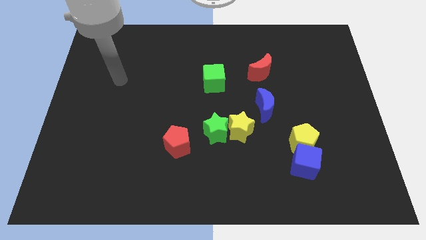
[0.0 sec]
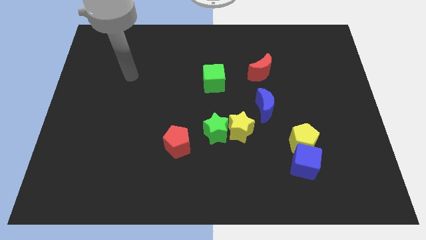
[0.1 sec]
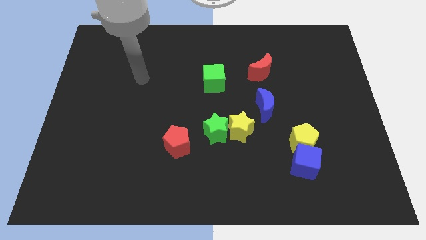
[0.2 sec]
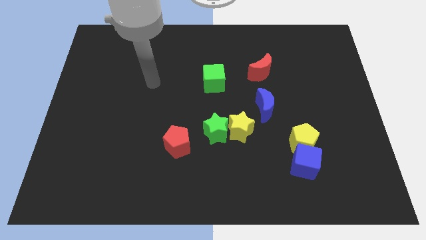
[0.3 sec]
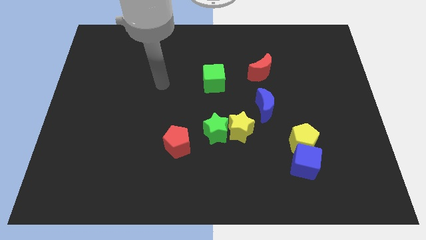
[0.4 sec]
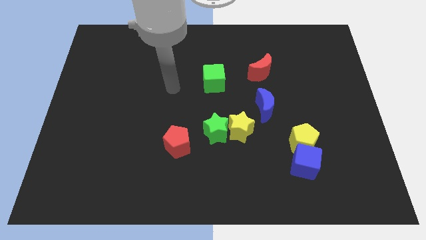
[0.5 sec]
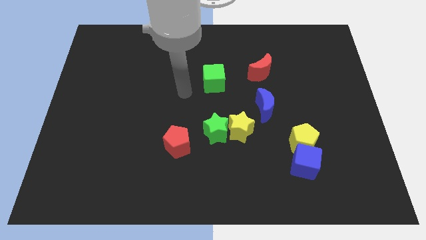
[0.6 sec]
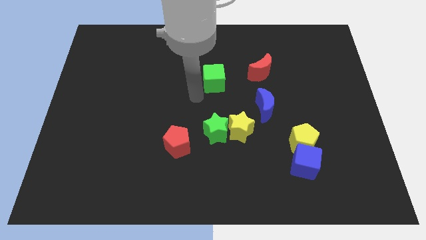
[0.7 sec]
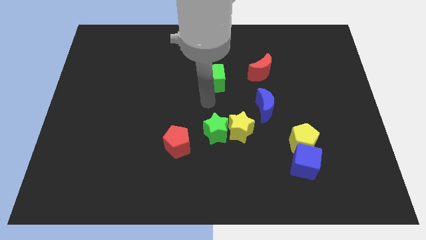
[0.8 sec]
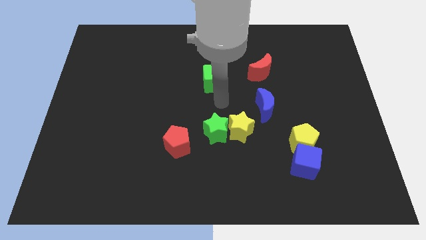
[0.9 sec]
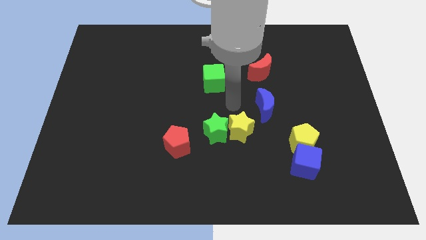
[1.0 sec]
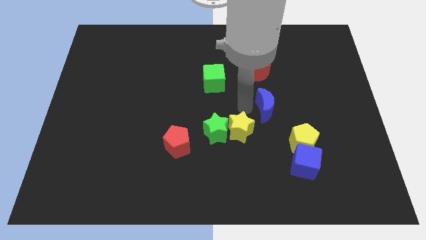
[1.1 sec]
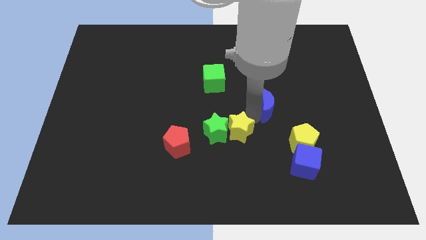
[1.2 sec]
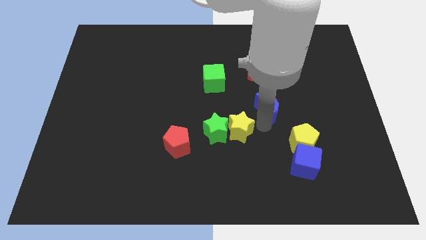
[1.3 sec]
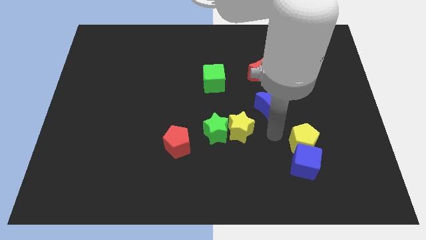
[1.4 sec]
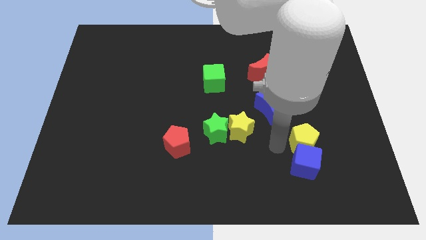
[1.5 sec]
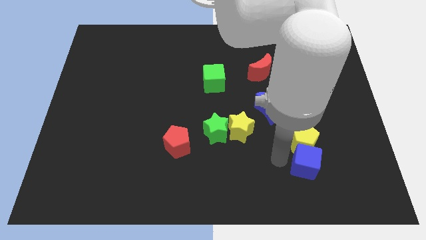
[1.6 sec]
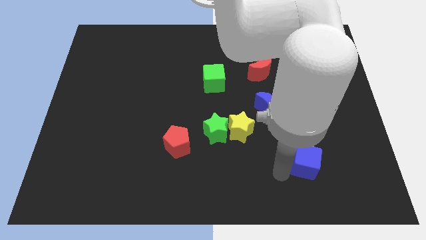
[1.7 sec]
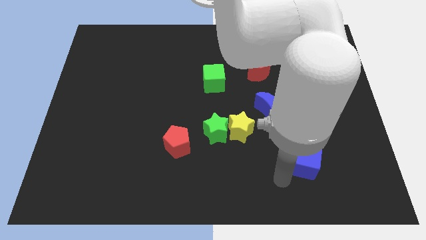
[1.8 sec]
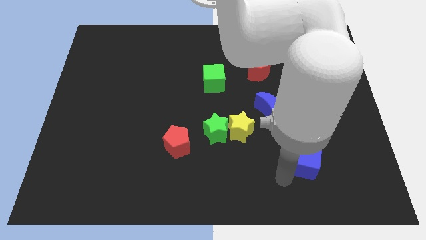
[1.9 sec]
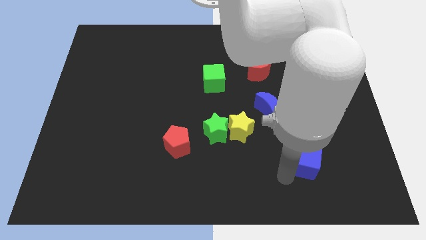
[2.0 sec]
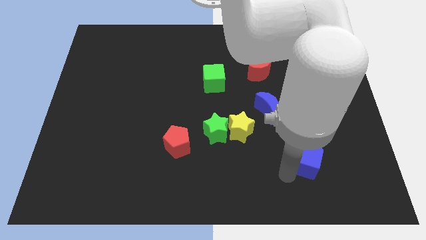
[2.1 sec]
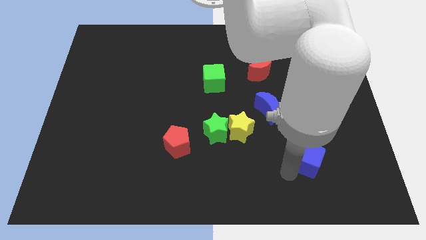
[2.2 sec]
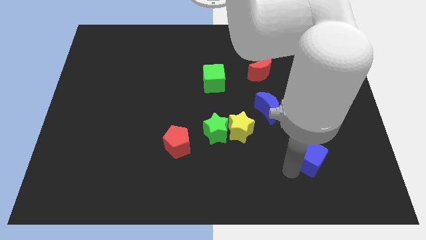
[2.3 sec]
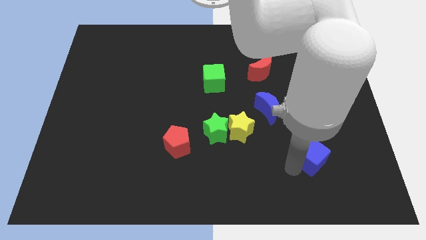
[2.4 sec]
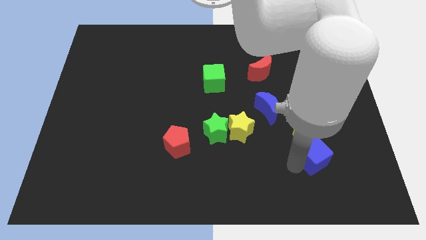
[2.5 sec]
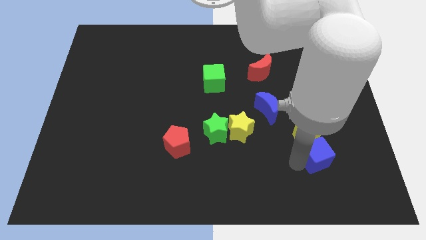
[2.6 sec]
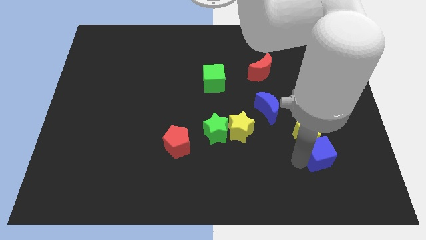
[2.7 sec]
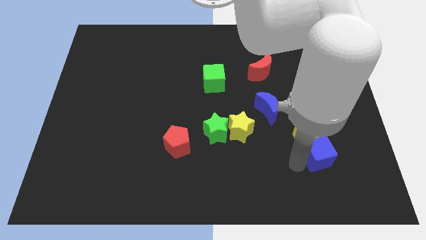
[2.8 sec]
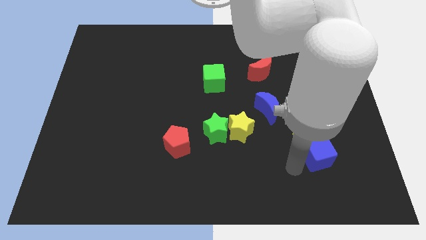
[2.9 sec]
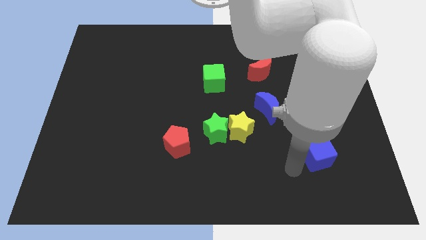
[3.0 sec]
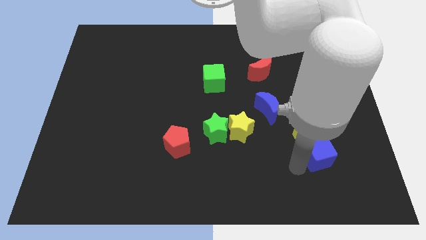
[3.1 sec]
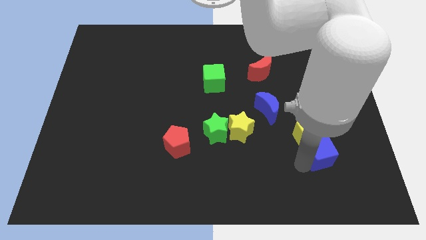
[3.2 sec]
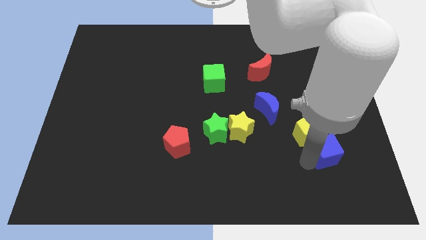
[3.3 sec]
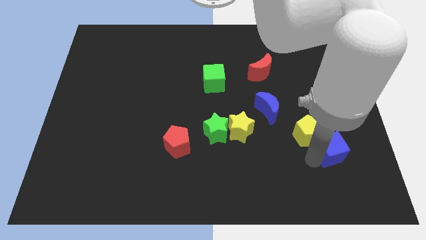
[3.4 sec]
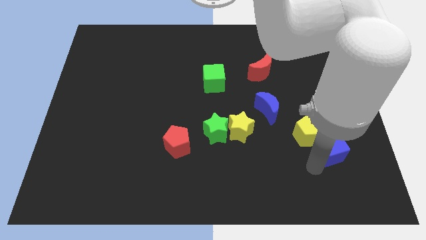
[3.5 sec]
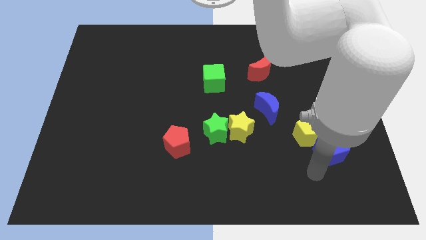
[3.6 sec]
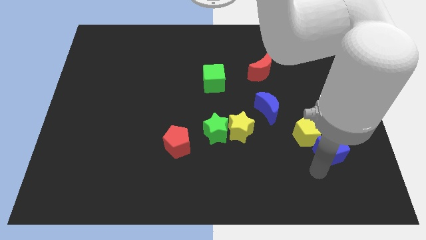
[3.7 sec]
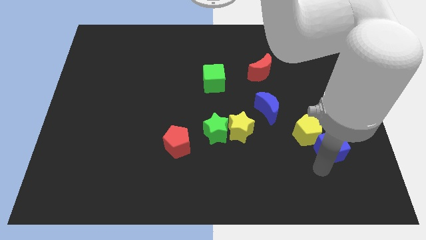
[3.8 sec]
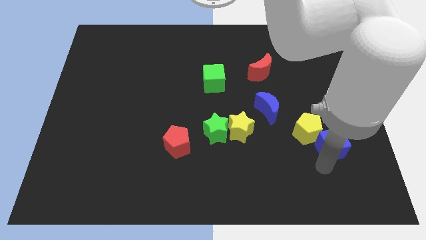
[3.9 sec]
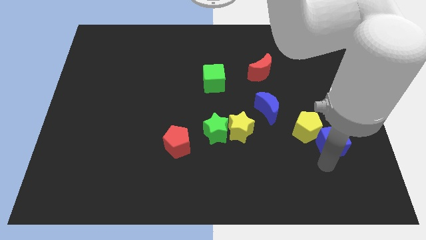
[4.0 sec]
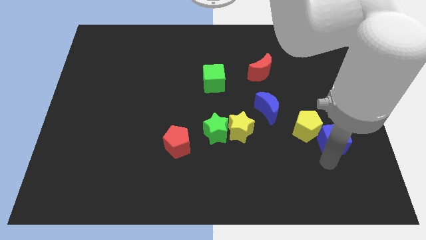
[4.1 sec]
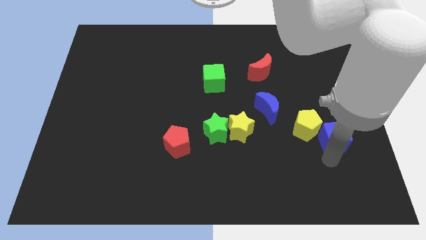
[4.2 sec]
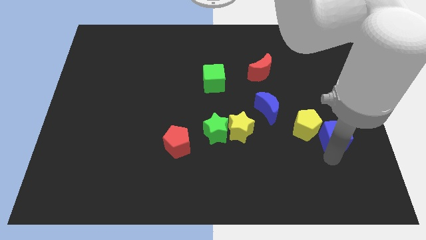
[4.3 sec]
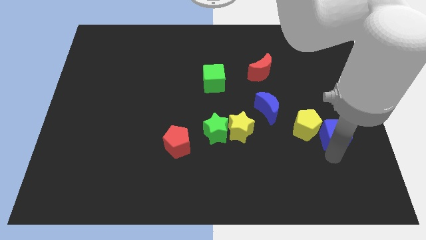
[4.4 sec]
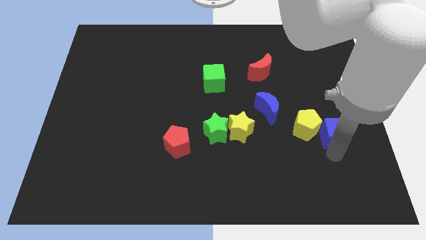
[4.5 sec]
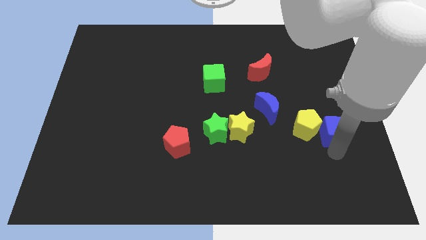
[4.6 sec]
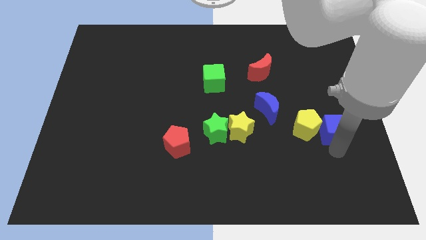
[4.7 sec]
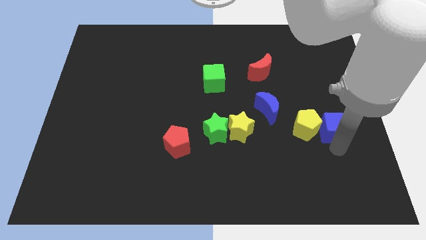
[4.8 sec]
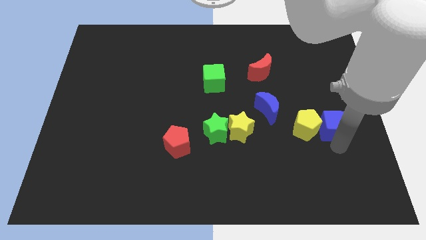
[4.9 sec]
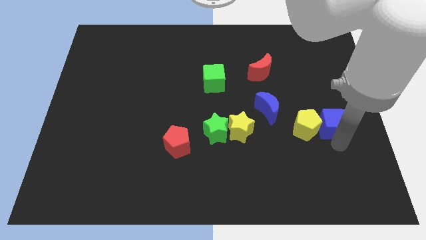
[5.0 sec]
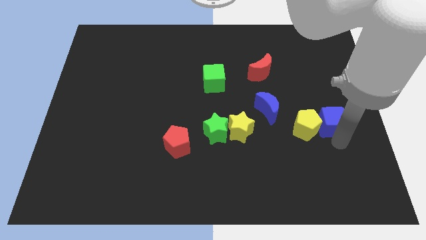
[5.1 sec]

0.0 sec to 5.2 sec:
slide the blue cube to the right side

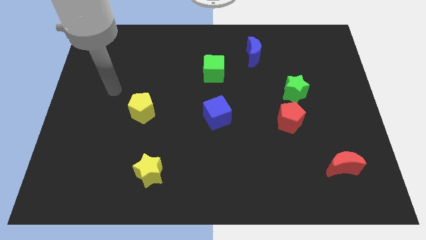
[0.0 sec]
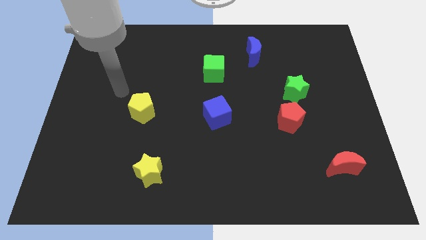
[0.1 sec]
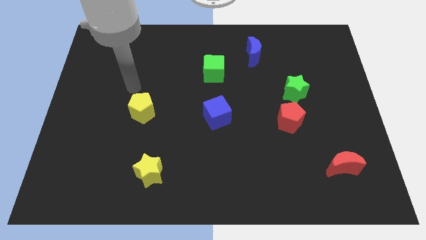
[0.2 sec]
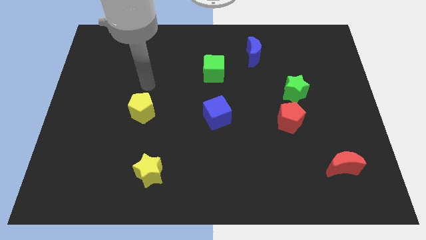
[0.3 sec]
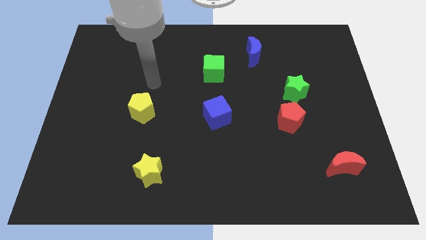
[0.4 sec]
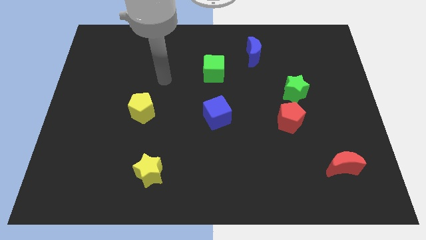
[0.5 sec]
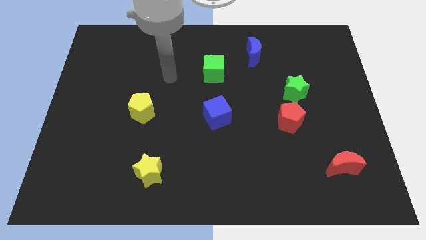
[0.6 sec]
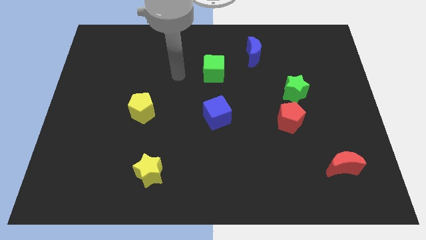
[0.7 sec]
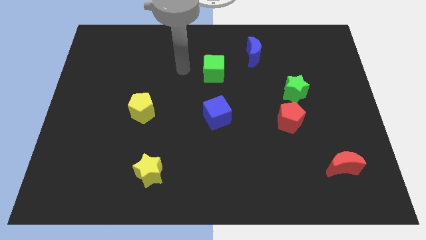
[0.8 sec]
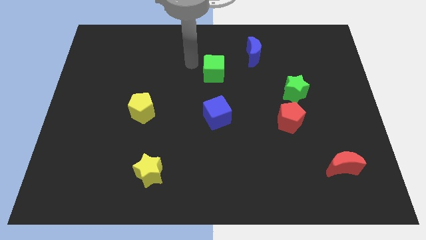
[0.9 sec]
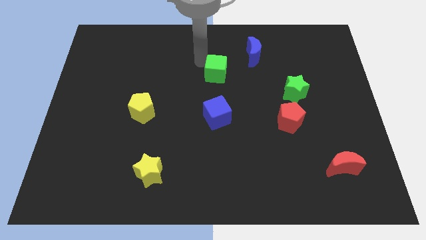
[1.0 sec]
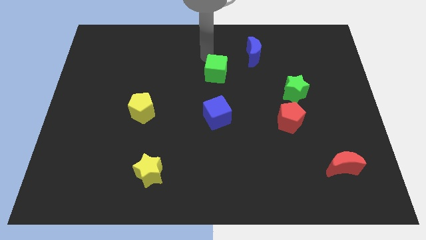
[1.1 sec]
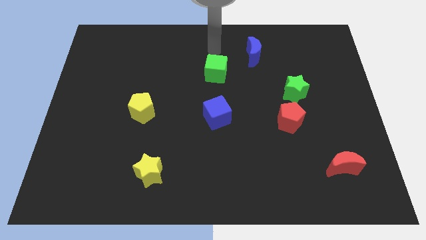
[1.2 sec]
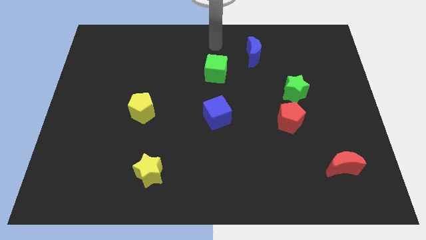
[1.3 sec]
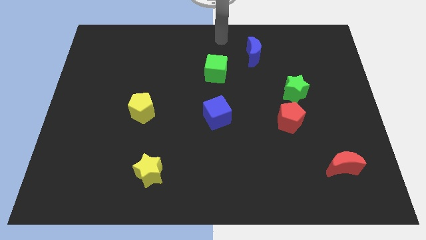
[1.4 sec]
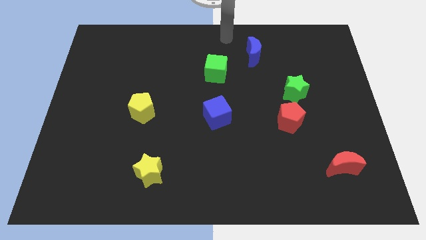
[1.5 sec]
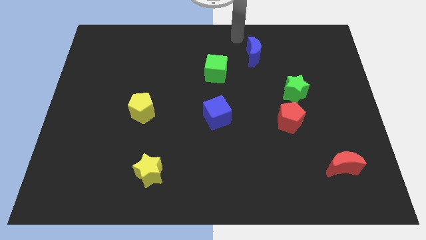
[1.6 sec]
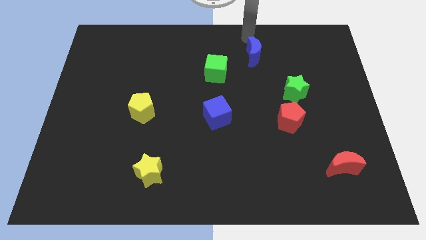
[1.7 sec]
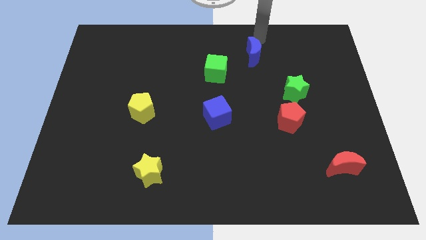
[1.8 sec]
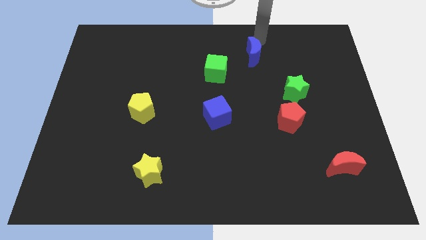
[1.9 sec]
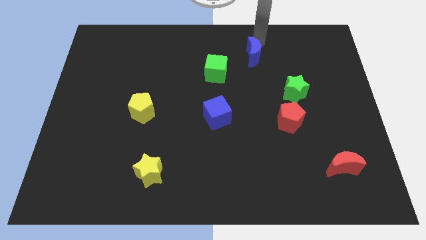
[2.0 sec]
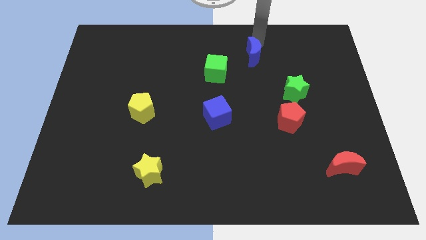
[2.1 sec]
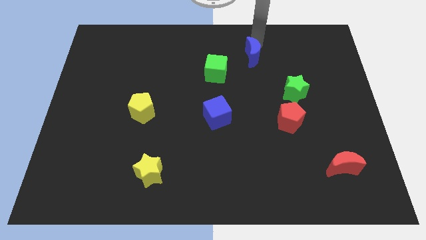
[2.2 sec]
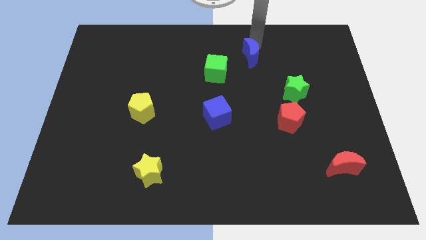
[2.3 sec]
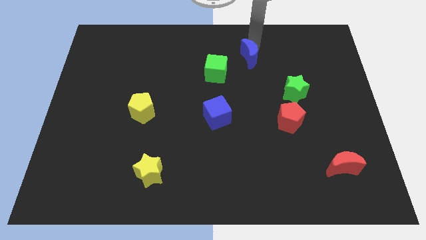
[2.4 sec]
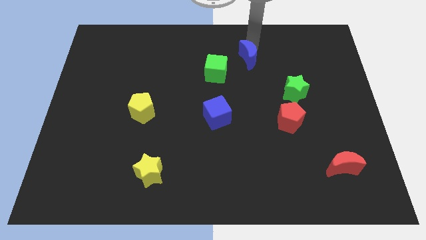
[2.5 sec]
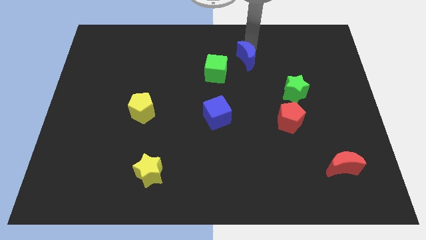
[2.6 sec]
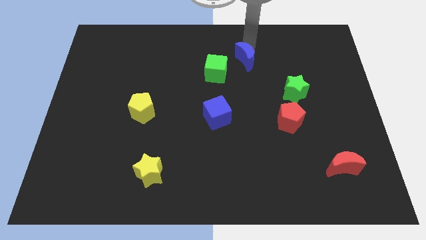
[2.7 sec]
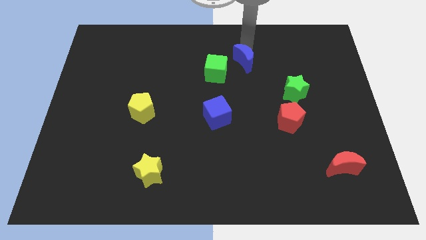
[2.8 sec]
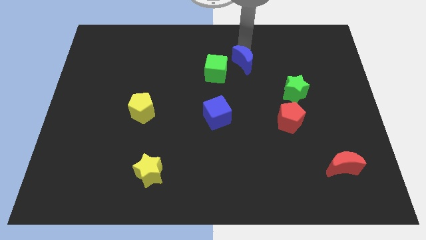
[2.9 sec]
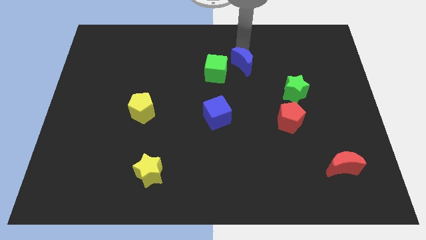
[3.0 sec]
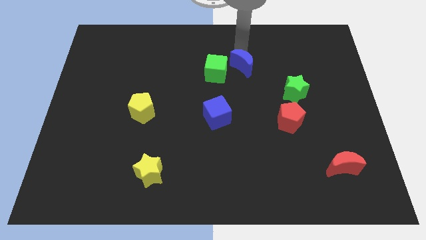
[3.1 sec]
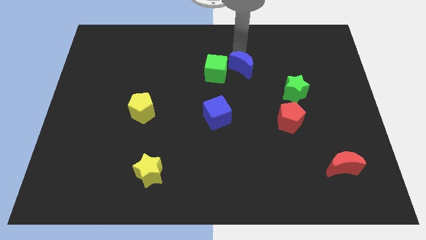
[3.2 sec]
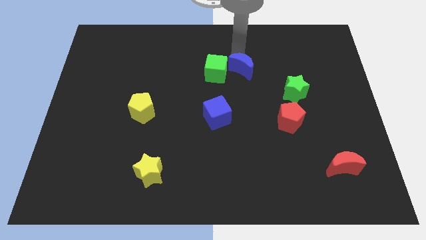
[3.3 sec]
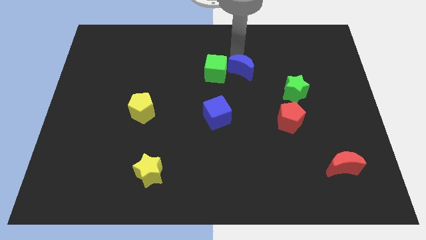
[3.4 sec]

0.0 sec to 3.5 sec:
push the blue moon to the center
